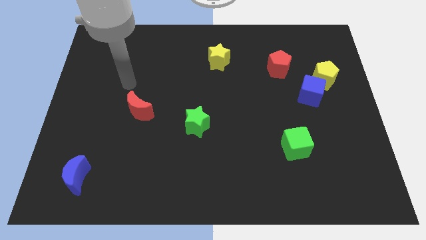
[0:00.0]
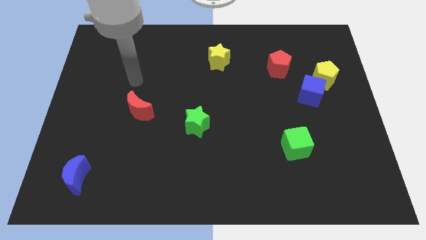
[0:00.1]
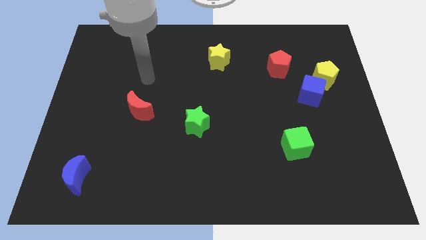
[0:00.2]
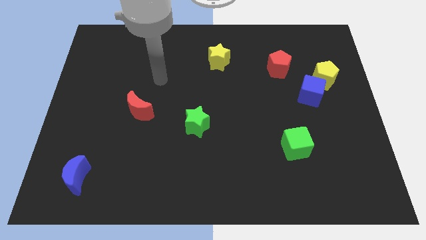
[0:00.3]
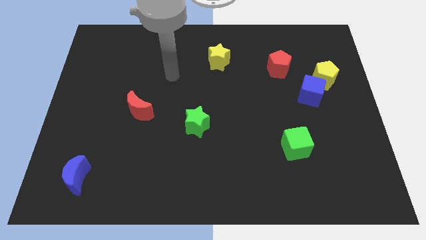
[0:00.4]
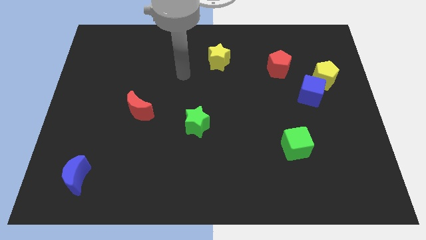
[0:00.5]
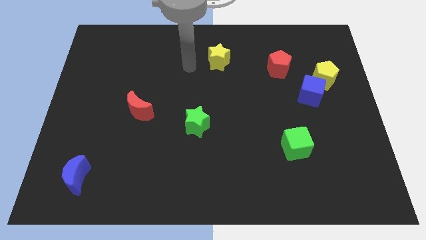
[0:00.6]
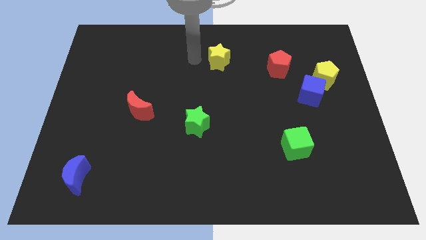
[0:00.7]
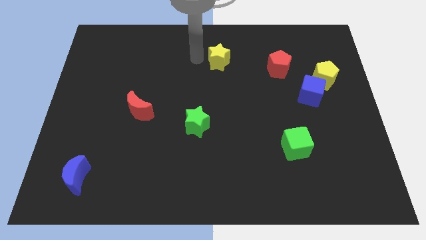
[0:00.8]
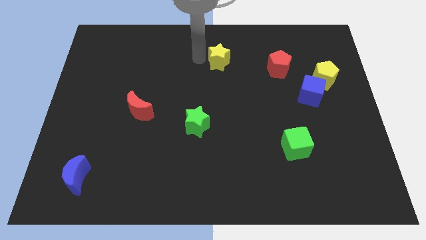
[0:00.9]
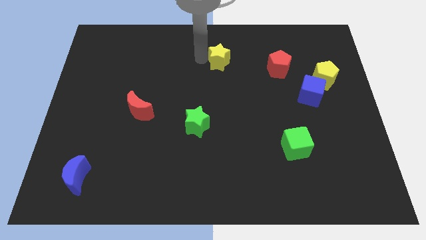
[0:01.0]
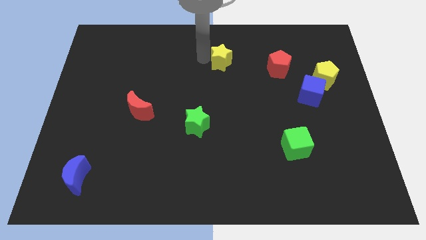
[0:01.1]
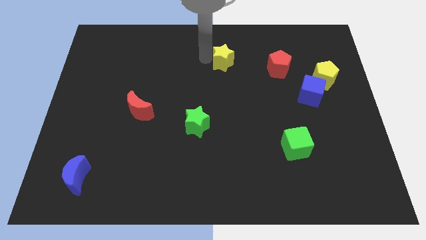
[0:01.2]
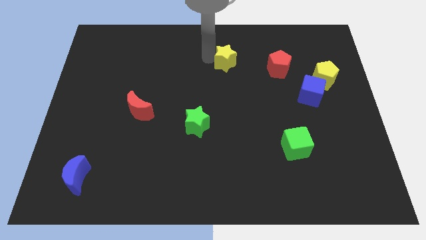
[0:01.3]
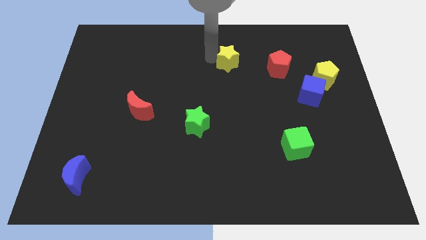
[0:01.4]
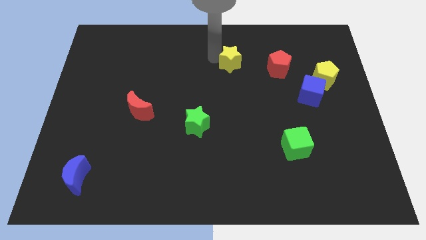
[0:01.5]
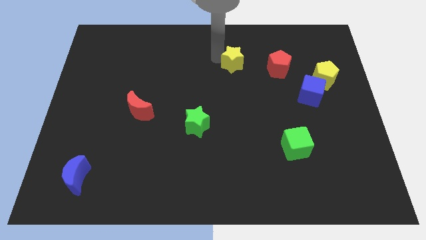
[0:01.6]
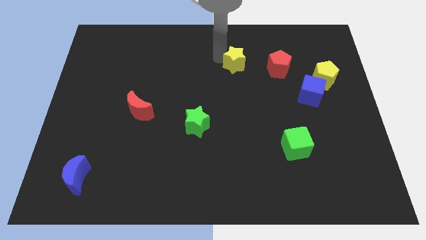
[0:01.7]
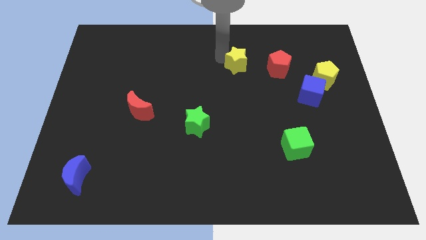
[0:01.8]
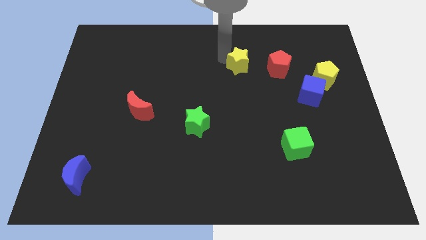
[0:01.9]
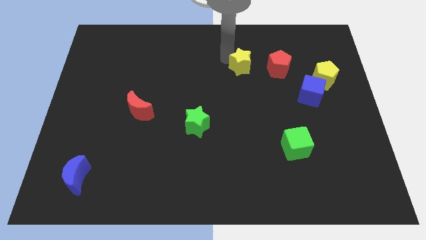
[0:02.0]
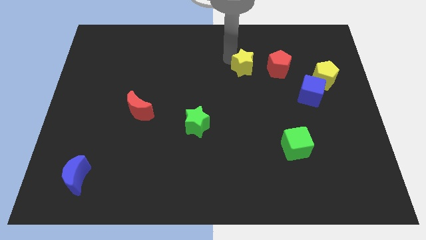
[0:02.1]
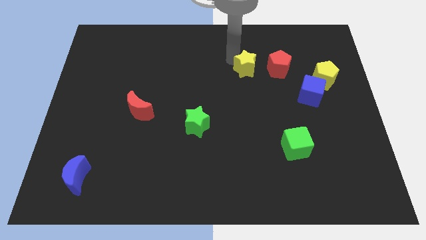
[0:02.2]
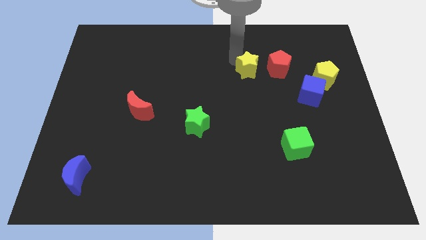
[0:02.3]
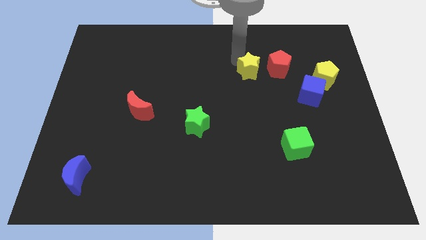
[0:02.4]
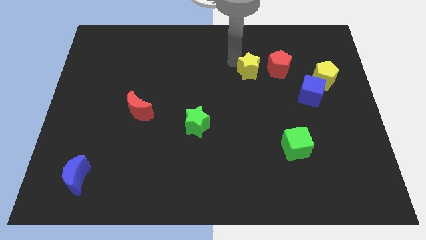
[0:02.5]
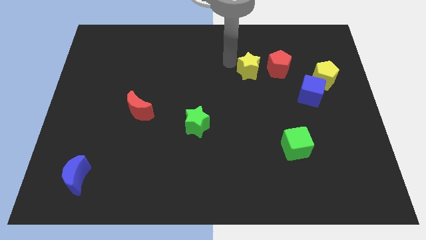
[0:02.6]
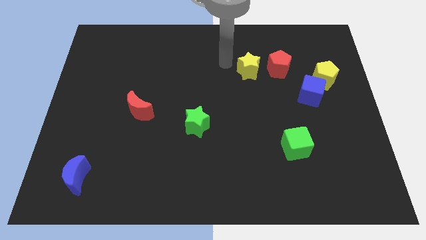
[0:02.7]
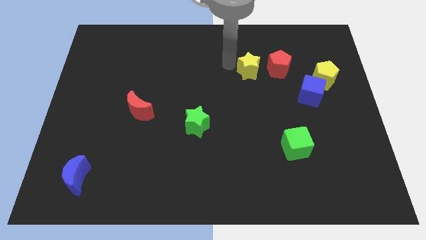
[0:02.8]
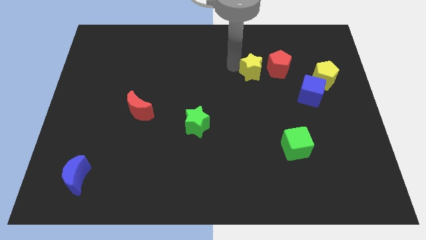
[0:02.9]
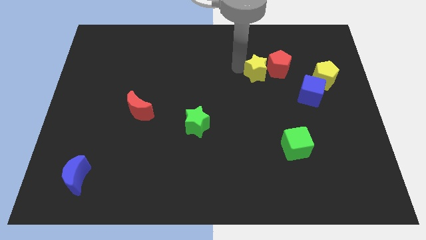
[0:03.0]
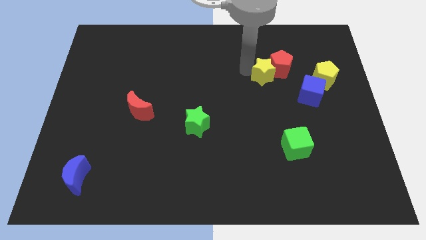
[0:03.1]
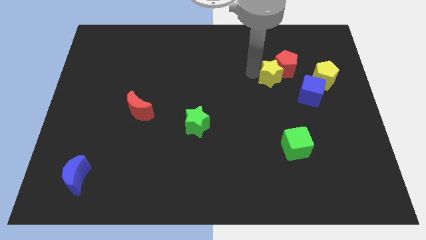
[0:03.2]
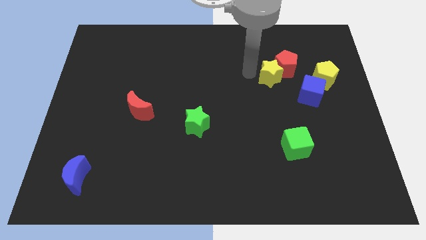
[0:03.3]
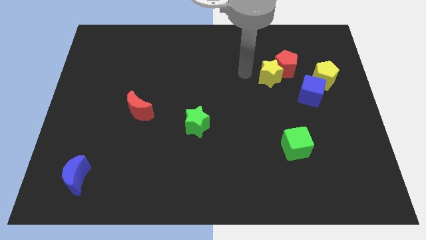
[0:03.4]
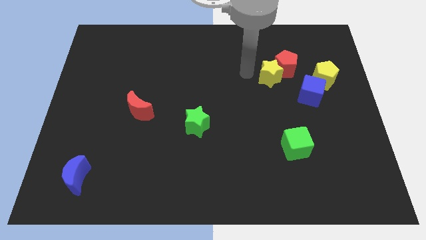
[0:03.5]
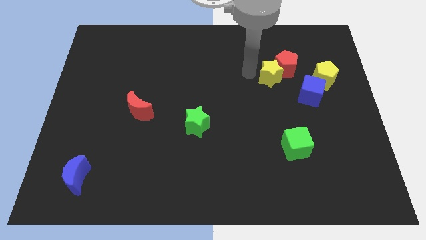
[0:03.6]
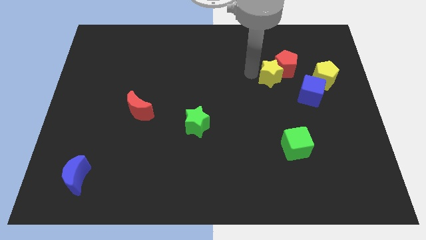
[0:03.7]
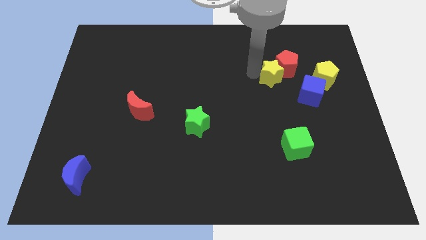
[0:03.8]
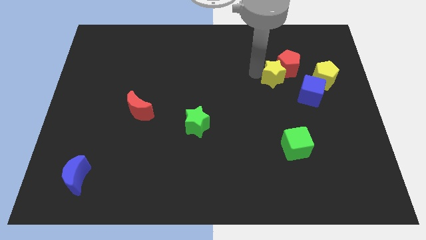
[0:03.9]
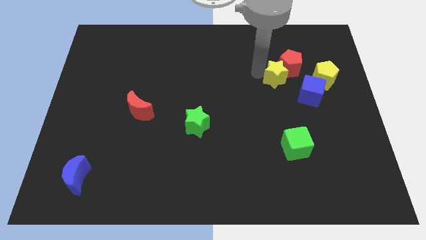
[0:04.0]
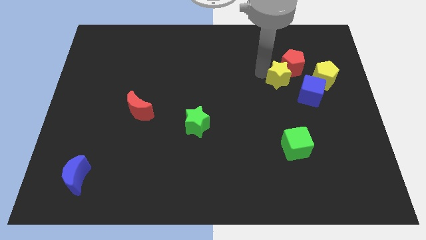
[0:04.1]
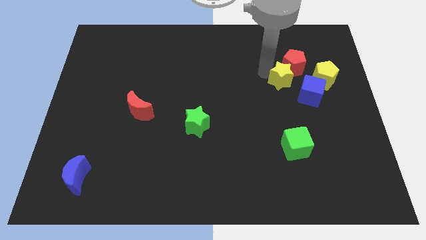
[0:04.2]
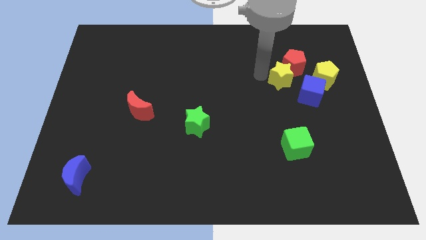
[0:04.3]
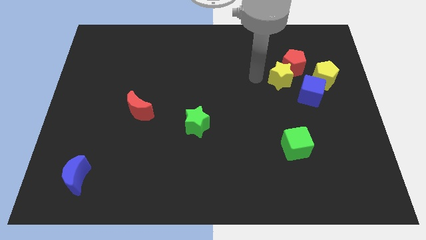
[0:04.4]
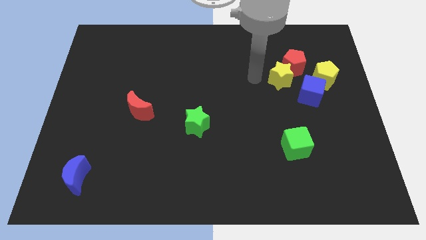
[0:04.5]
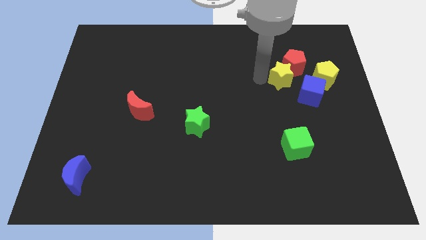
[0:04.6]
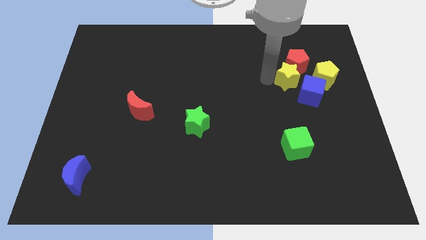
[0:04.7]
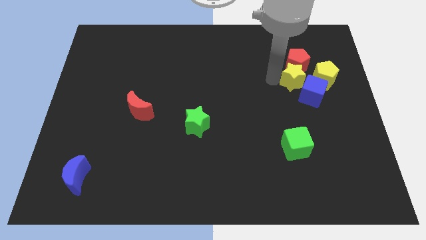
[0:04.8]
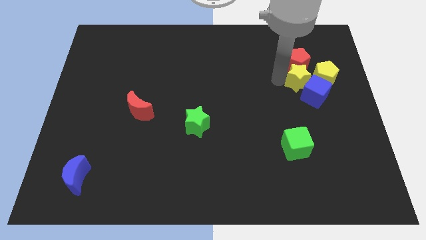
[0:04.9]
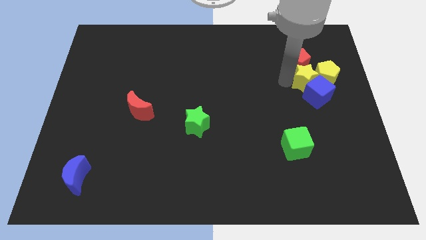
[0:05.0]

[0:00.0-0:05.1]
move the yellow star towards the yellow pentagon

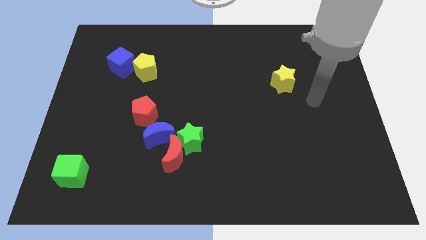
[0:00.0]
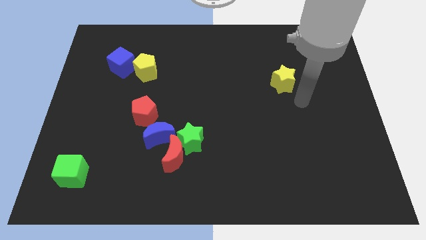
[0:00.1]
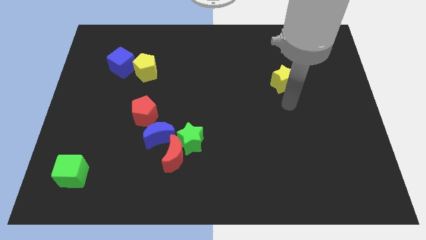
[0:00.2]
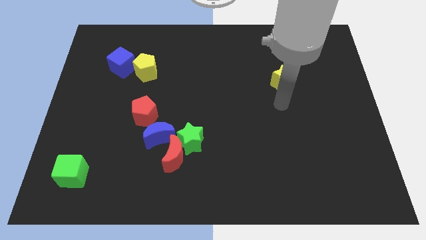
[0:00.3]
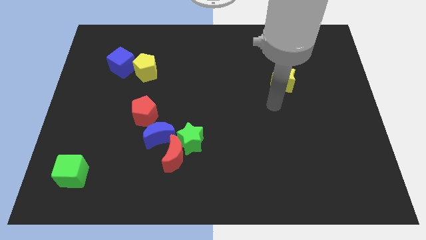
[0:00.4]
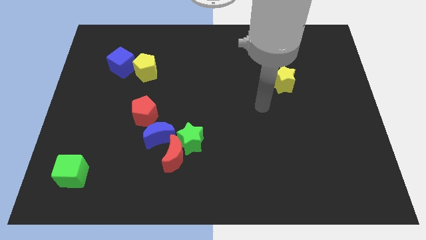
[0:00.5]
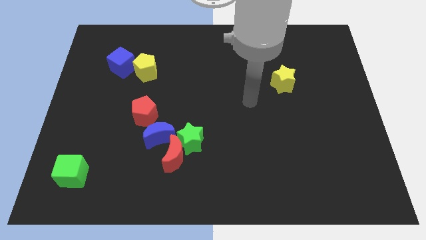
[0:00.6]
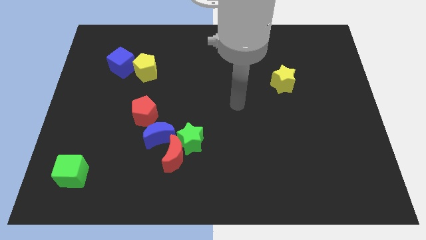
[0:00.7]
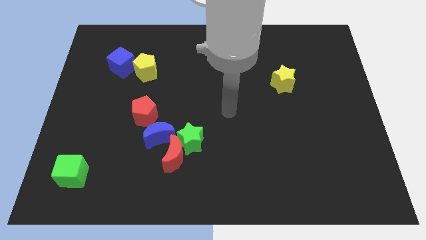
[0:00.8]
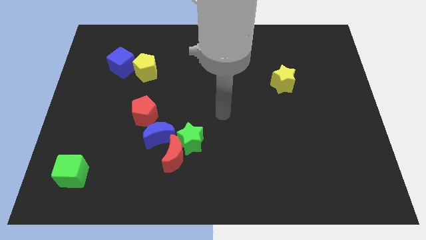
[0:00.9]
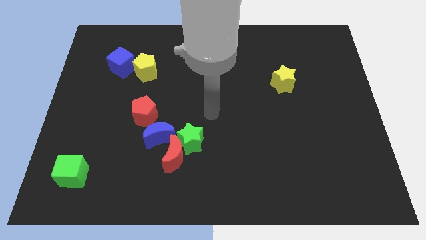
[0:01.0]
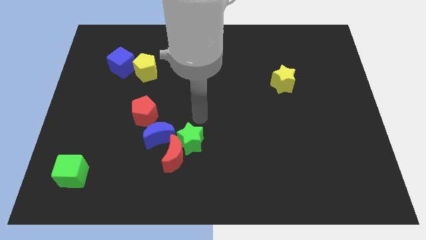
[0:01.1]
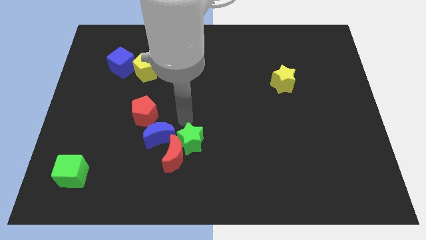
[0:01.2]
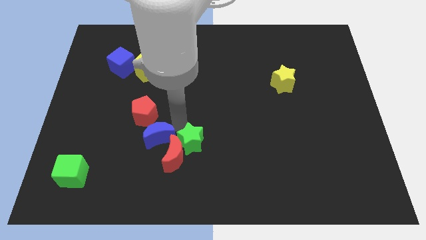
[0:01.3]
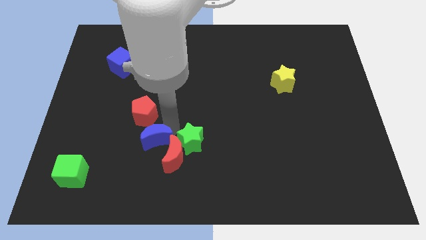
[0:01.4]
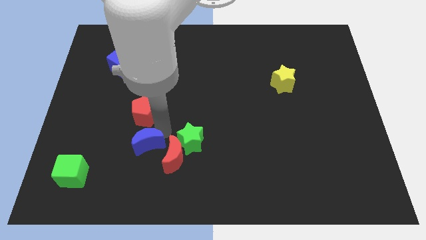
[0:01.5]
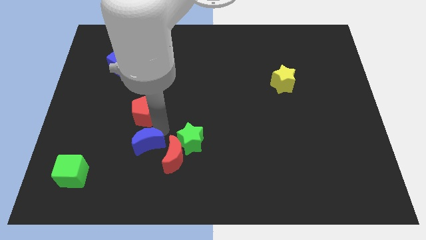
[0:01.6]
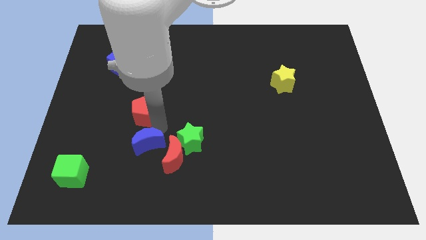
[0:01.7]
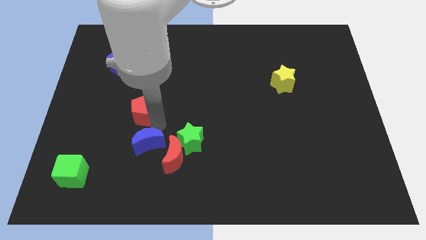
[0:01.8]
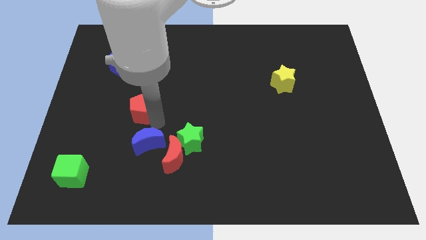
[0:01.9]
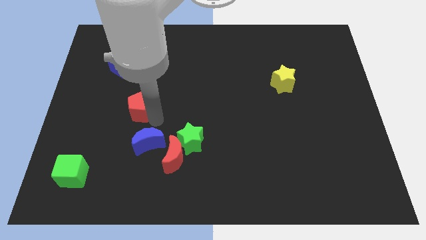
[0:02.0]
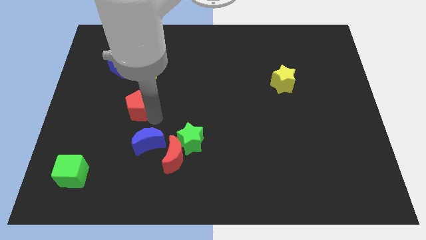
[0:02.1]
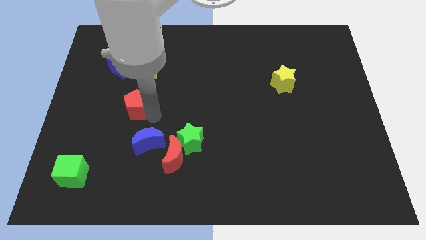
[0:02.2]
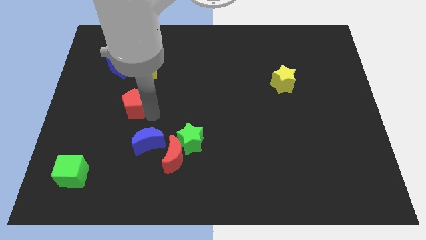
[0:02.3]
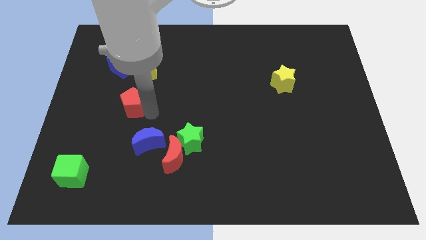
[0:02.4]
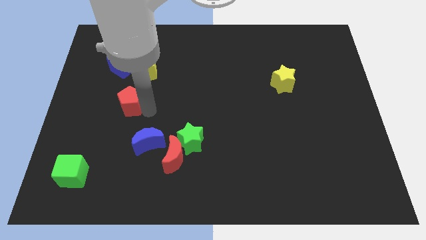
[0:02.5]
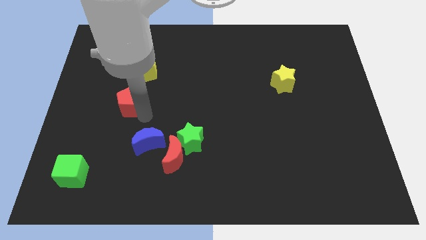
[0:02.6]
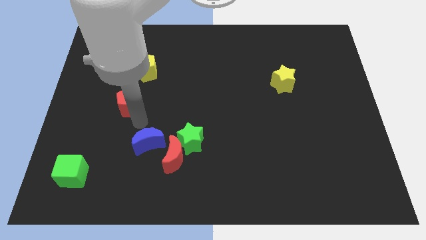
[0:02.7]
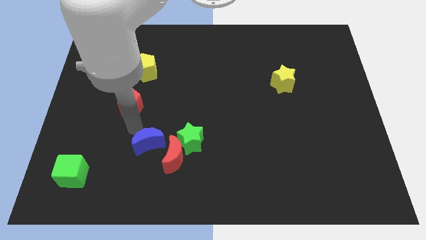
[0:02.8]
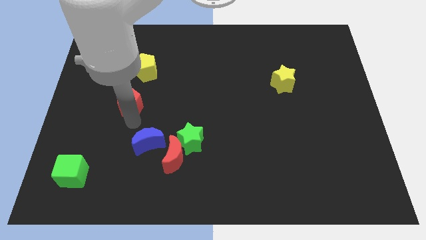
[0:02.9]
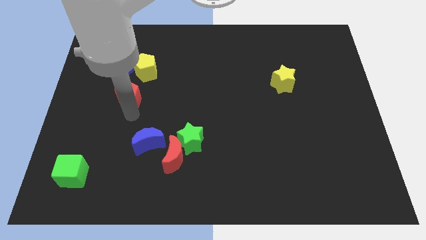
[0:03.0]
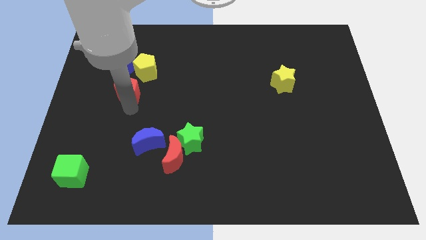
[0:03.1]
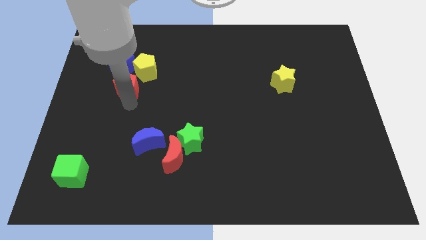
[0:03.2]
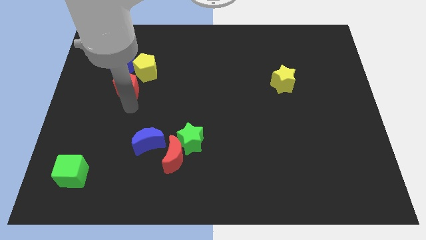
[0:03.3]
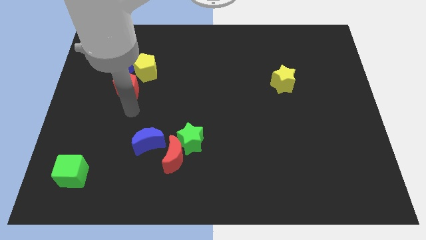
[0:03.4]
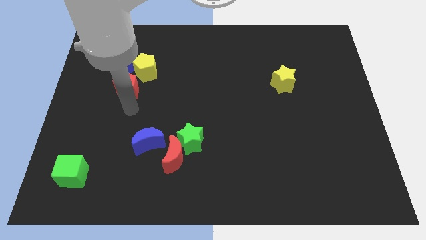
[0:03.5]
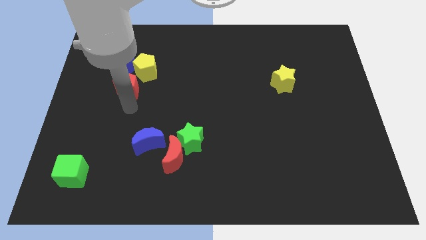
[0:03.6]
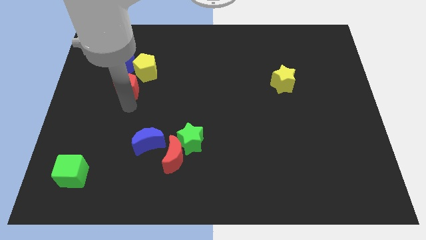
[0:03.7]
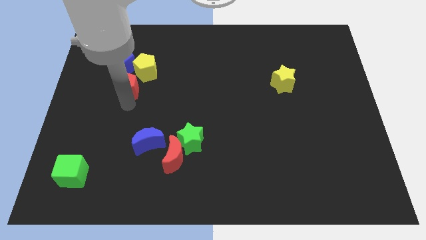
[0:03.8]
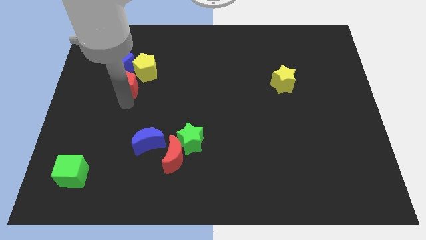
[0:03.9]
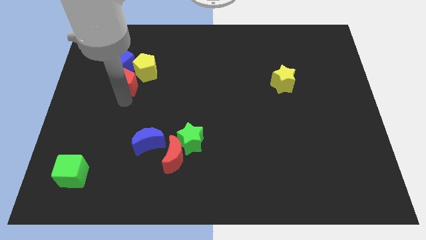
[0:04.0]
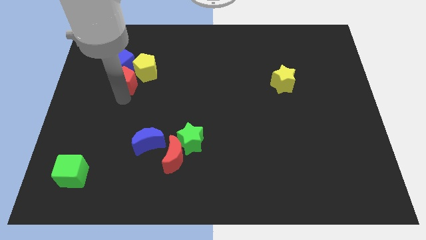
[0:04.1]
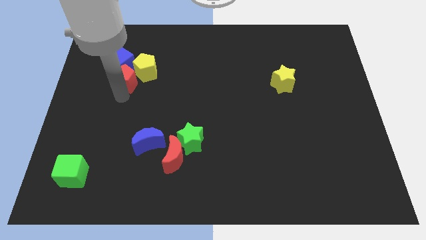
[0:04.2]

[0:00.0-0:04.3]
push the red pentagon towards the blue cube
